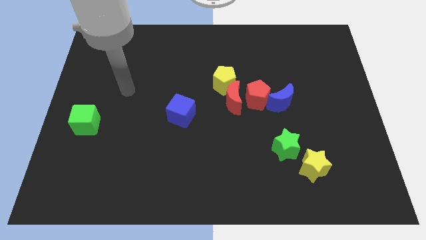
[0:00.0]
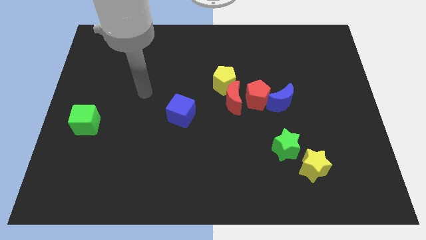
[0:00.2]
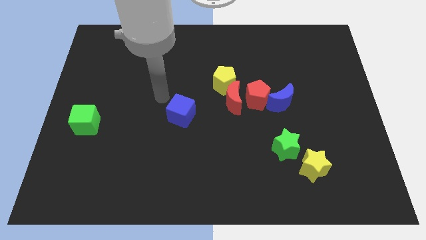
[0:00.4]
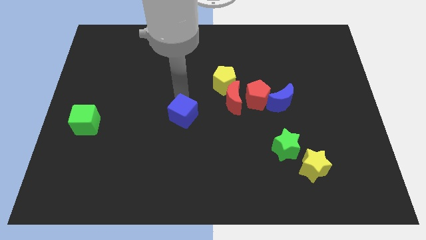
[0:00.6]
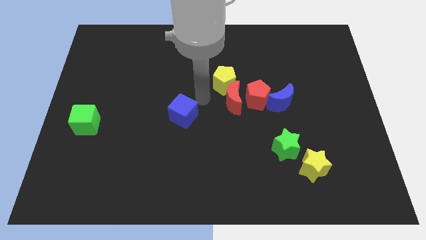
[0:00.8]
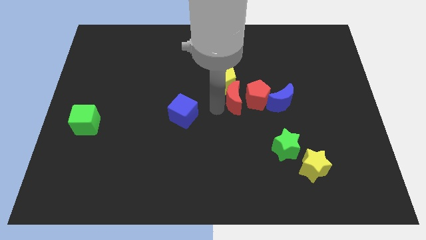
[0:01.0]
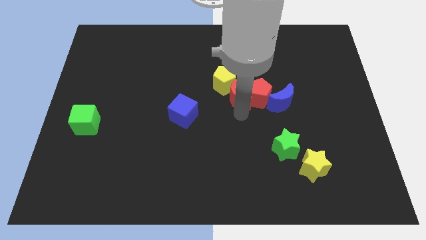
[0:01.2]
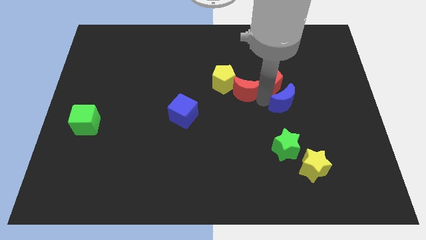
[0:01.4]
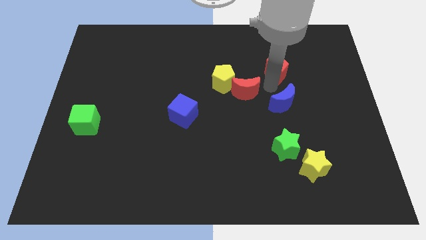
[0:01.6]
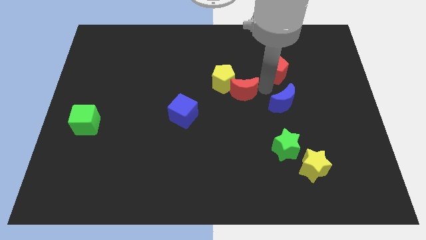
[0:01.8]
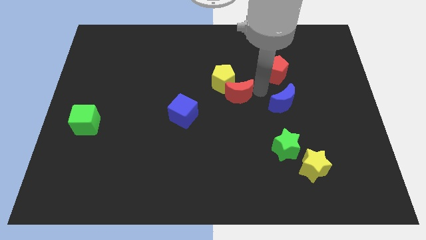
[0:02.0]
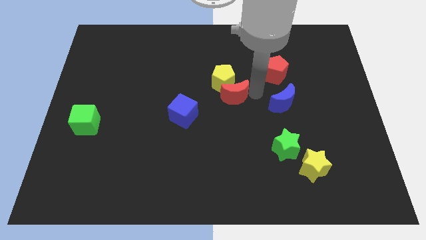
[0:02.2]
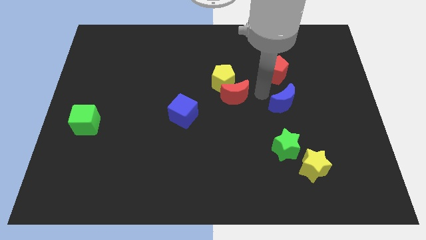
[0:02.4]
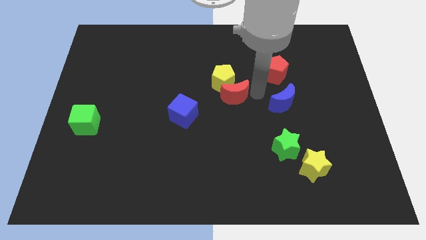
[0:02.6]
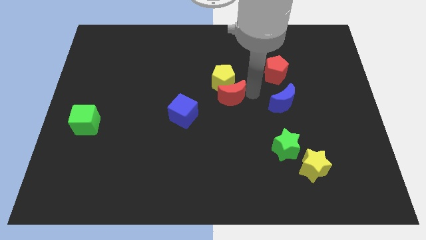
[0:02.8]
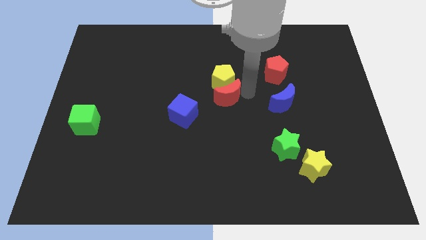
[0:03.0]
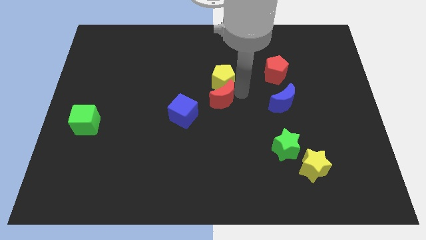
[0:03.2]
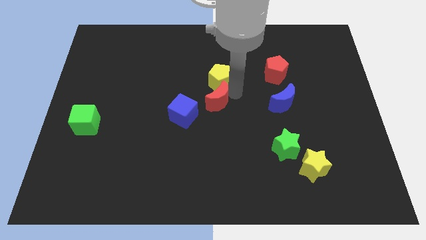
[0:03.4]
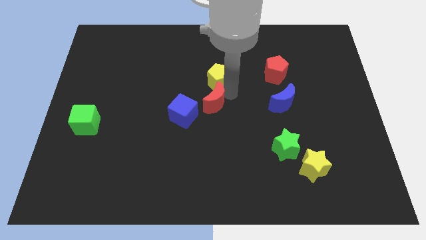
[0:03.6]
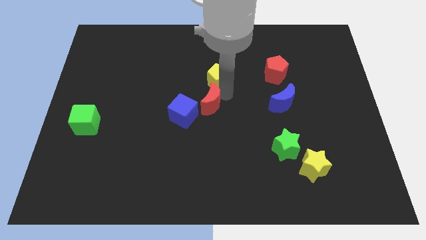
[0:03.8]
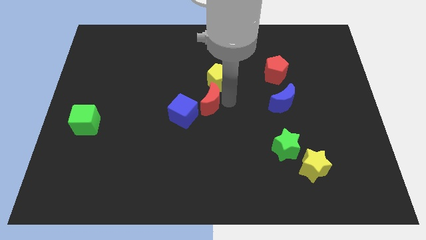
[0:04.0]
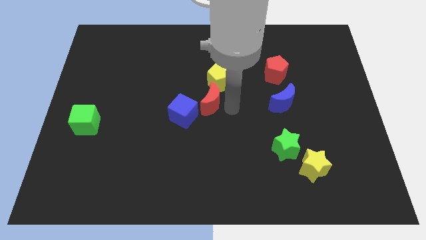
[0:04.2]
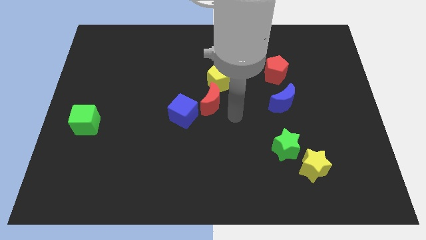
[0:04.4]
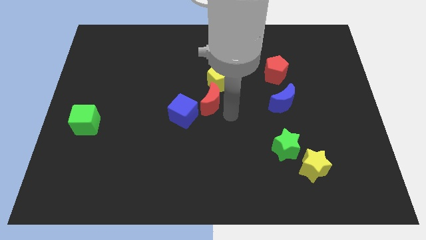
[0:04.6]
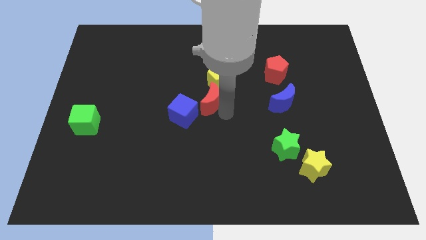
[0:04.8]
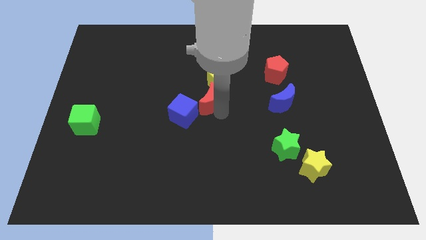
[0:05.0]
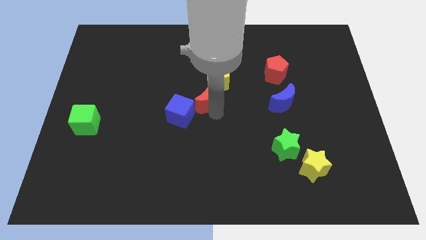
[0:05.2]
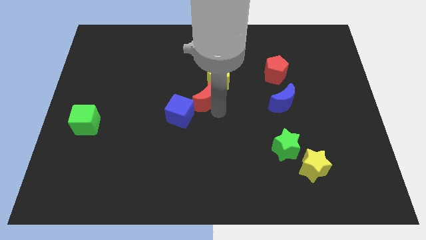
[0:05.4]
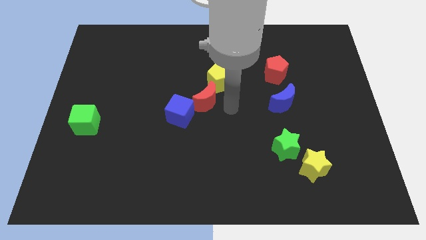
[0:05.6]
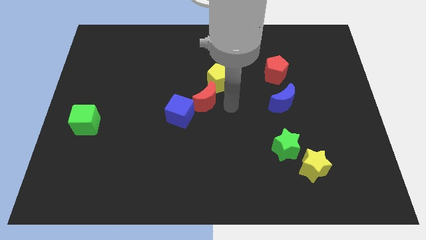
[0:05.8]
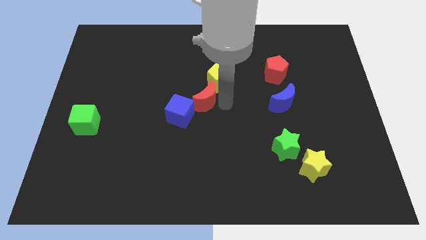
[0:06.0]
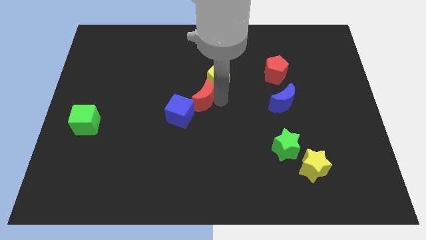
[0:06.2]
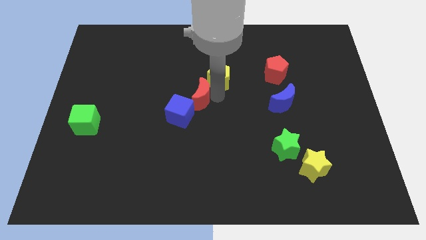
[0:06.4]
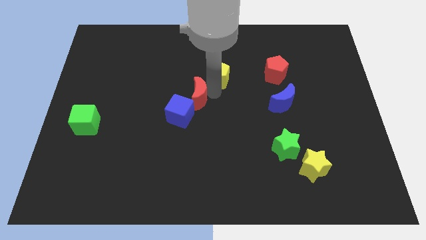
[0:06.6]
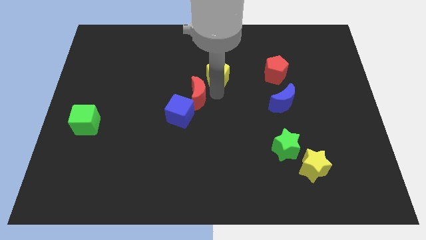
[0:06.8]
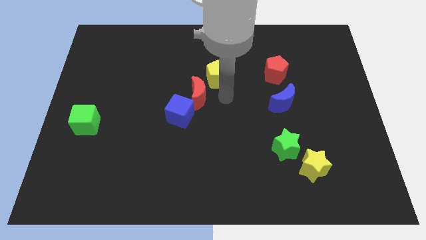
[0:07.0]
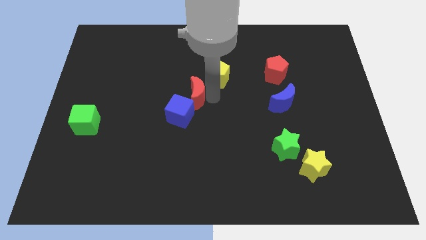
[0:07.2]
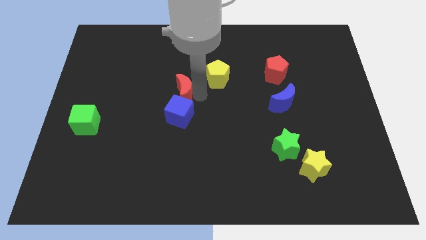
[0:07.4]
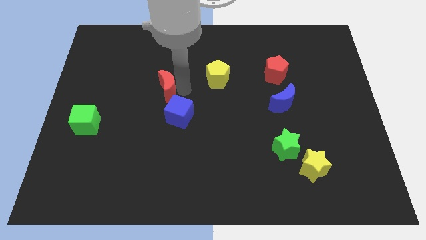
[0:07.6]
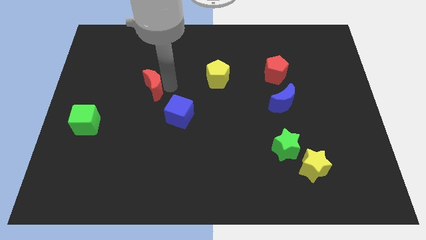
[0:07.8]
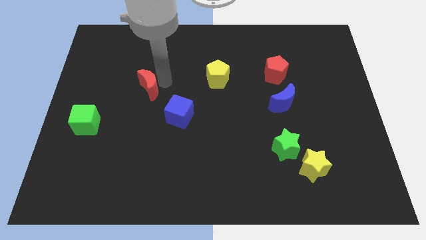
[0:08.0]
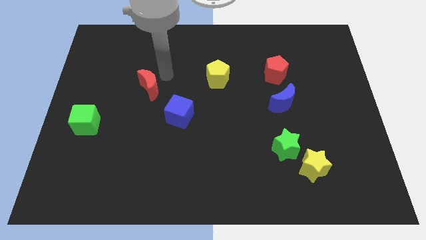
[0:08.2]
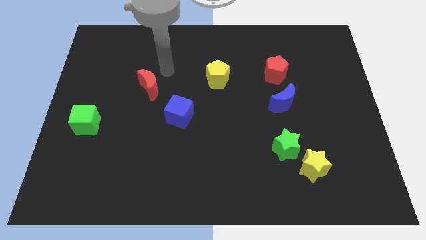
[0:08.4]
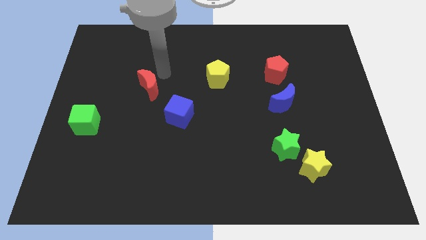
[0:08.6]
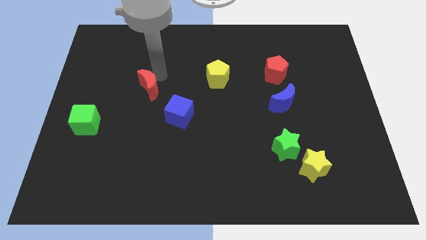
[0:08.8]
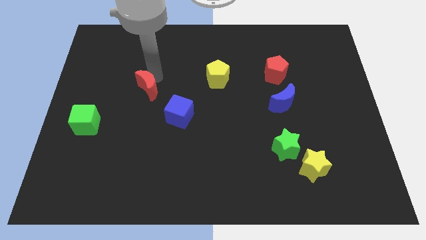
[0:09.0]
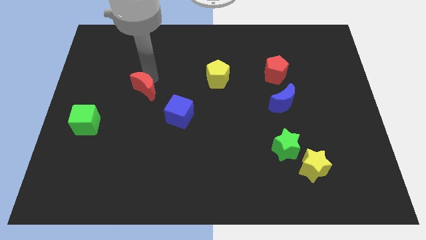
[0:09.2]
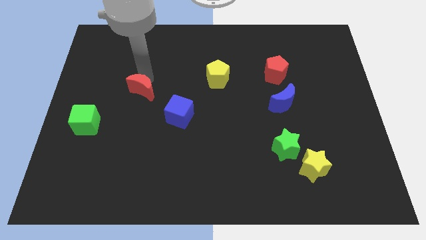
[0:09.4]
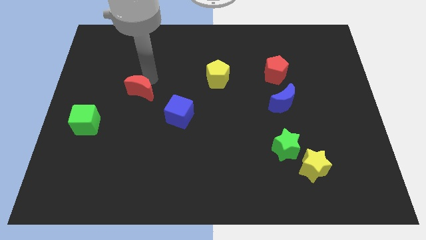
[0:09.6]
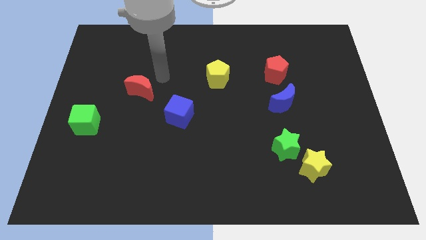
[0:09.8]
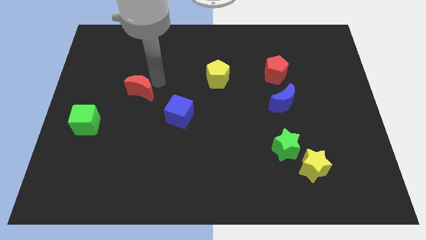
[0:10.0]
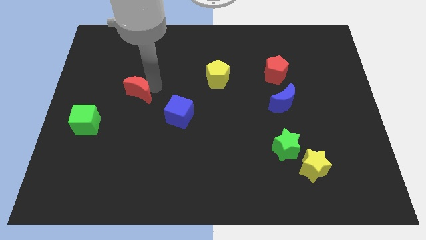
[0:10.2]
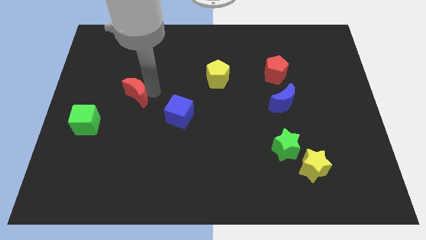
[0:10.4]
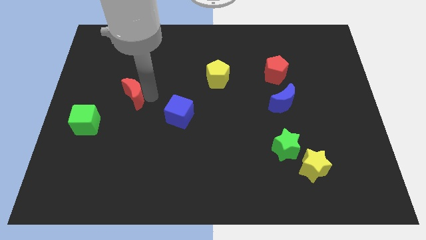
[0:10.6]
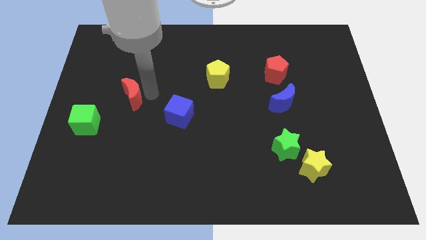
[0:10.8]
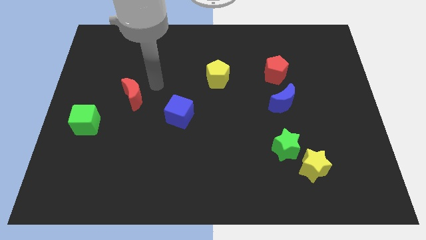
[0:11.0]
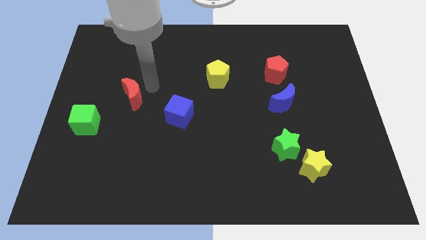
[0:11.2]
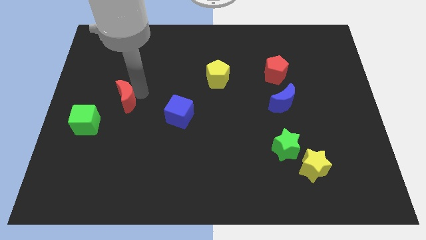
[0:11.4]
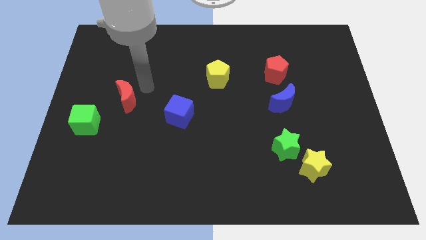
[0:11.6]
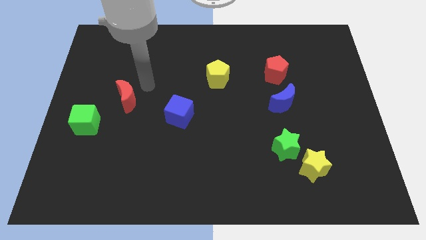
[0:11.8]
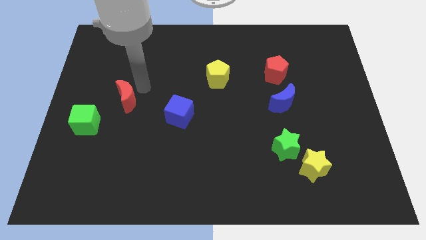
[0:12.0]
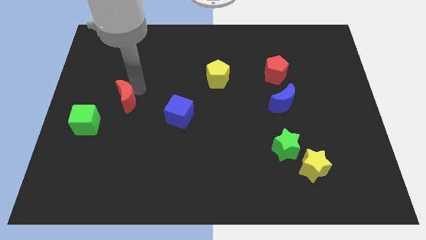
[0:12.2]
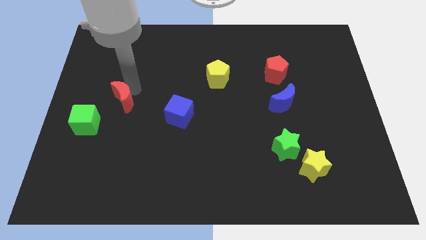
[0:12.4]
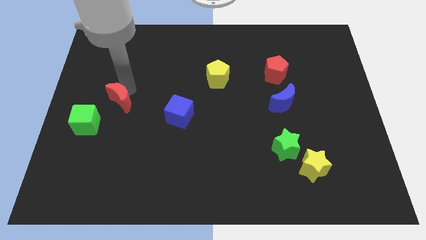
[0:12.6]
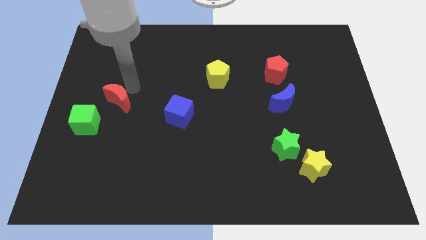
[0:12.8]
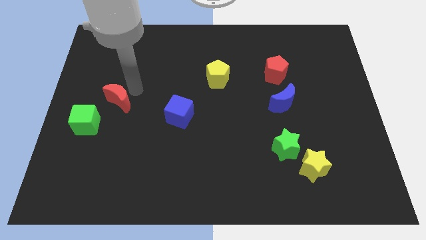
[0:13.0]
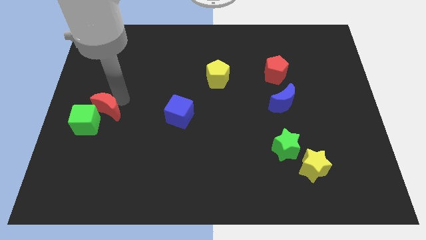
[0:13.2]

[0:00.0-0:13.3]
put the red moon next to the green cube
